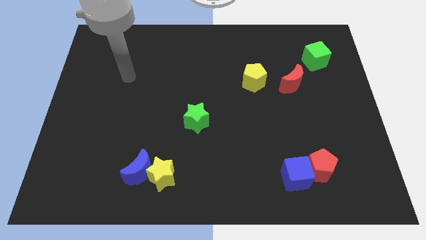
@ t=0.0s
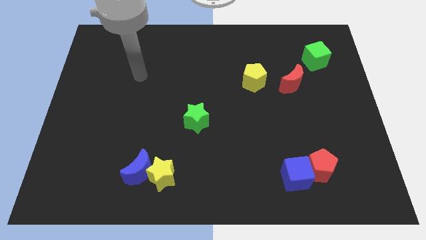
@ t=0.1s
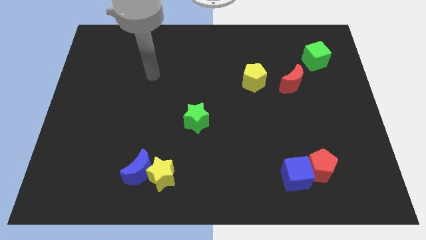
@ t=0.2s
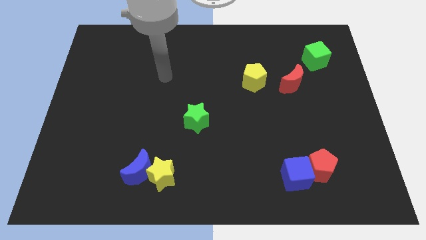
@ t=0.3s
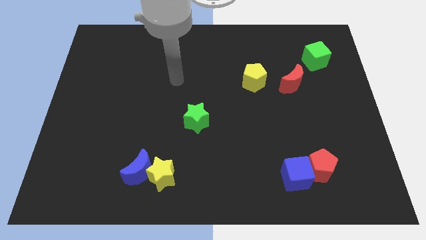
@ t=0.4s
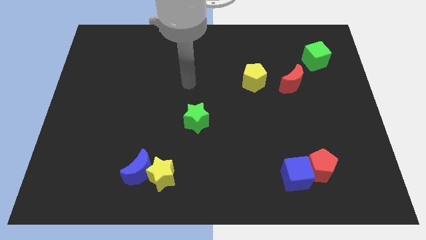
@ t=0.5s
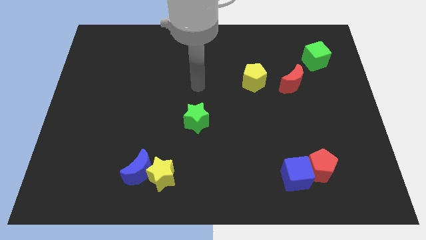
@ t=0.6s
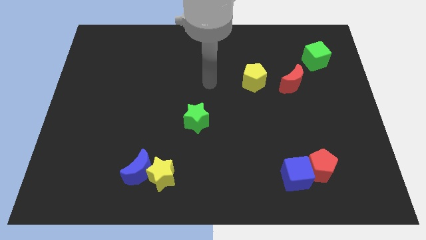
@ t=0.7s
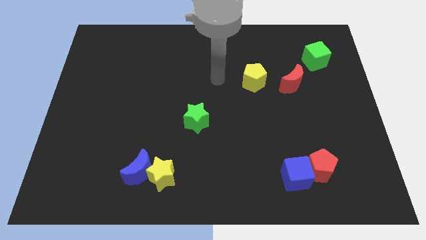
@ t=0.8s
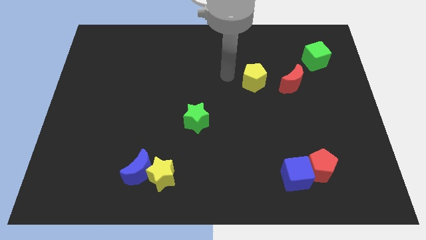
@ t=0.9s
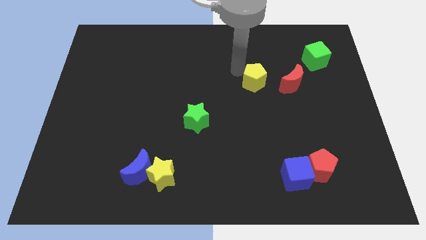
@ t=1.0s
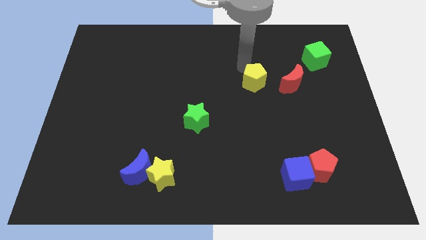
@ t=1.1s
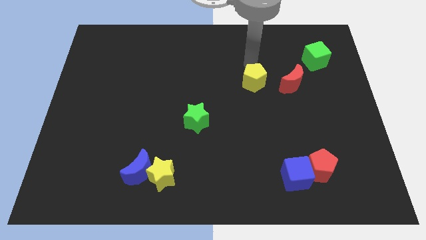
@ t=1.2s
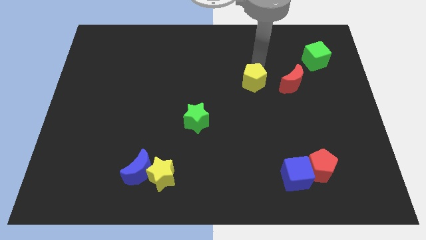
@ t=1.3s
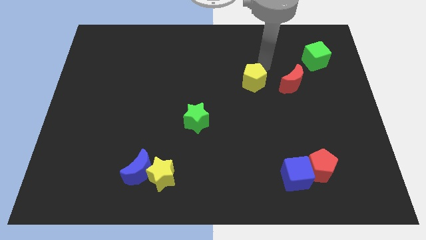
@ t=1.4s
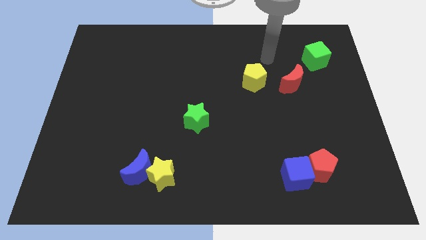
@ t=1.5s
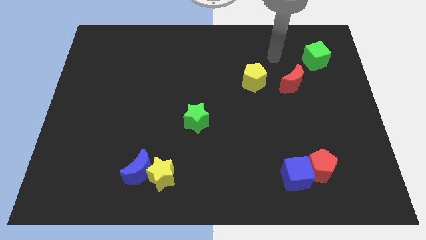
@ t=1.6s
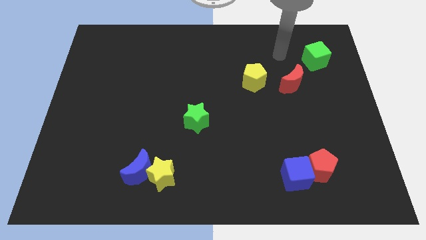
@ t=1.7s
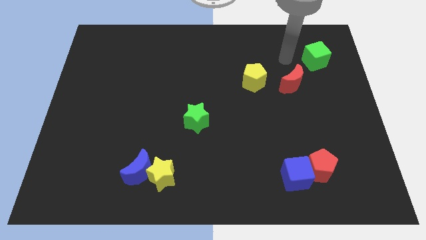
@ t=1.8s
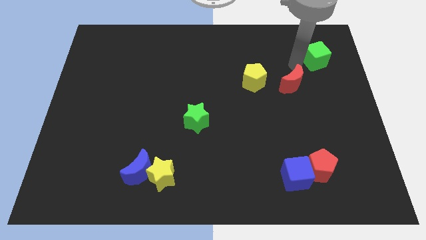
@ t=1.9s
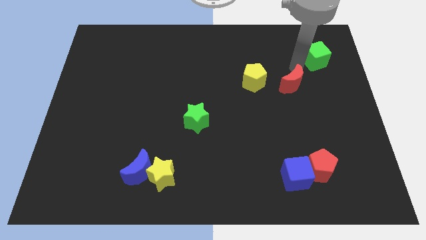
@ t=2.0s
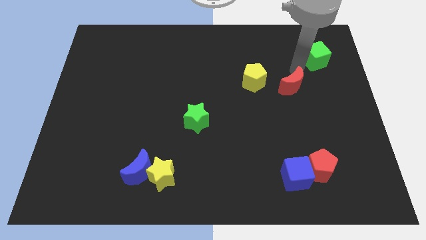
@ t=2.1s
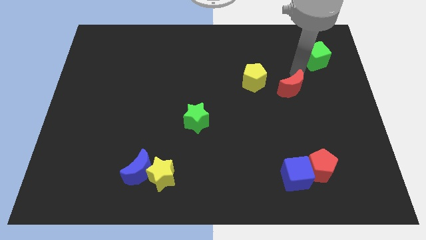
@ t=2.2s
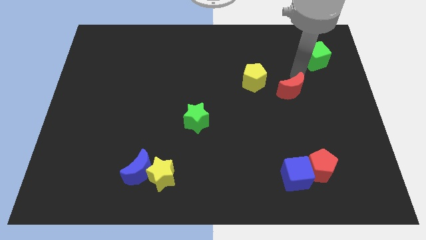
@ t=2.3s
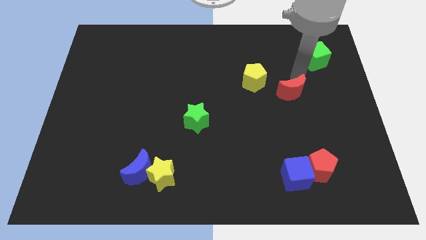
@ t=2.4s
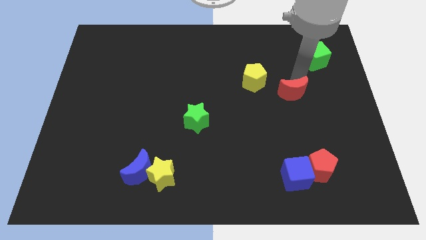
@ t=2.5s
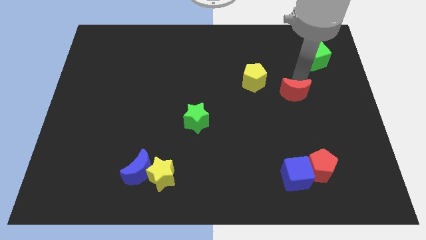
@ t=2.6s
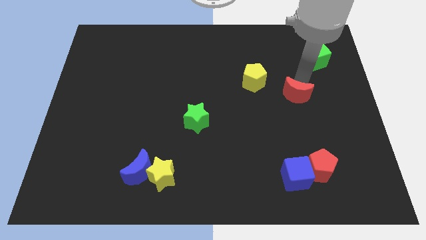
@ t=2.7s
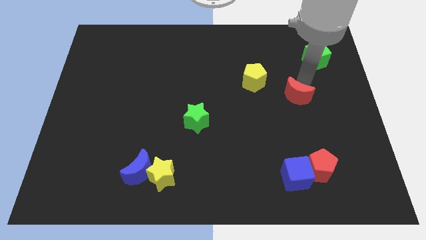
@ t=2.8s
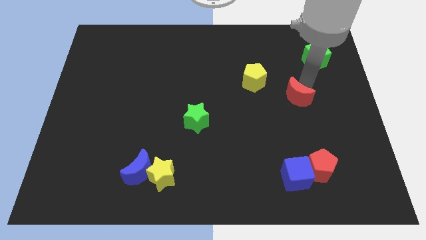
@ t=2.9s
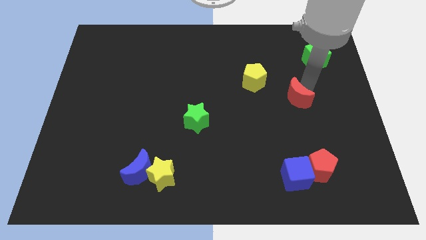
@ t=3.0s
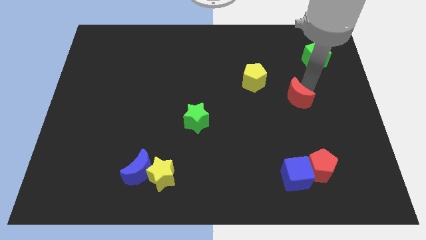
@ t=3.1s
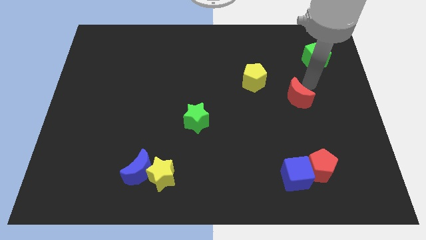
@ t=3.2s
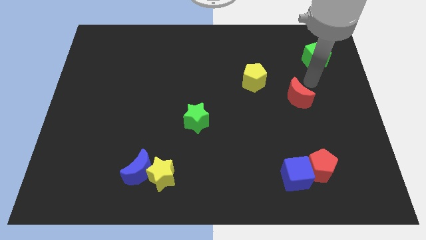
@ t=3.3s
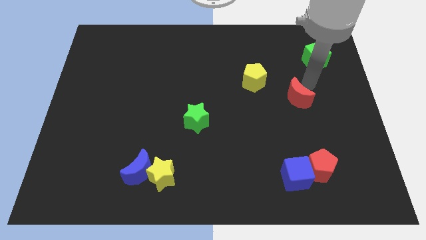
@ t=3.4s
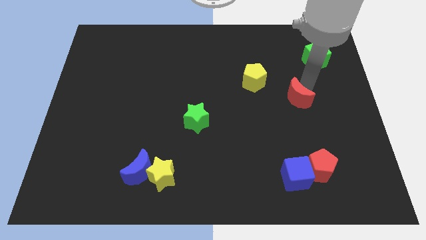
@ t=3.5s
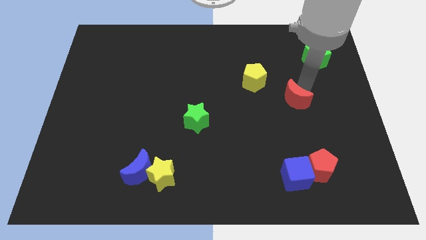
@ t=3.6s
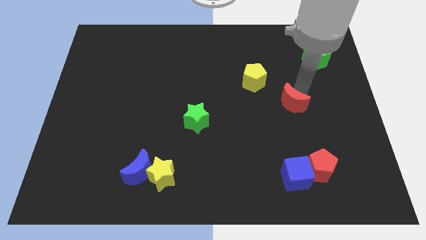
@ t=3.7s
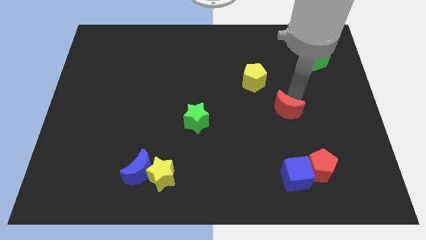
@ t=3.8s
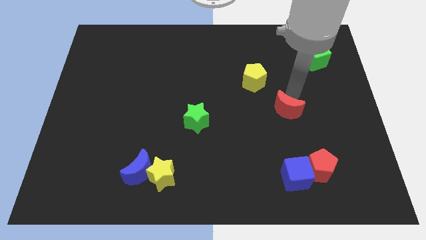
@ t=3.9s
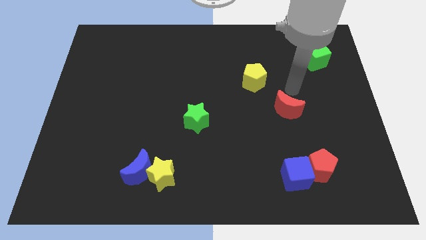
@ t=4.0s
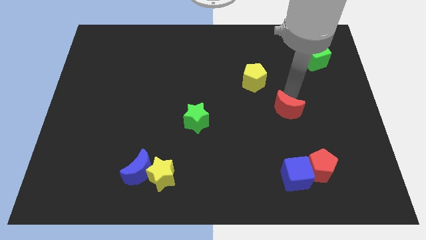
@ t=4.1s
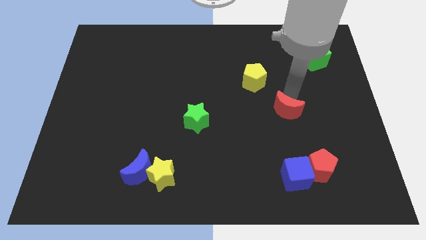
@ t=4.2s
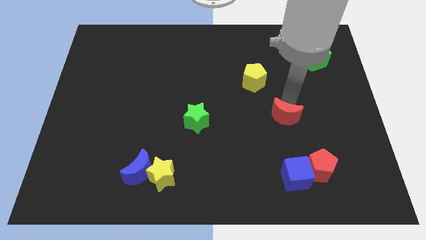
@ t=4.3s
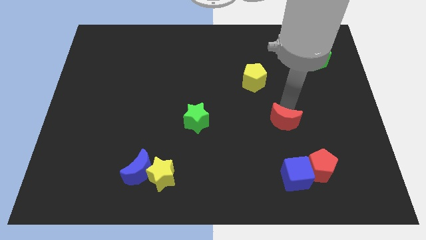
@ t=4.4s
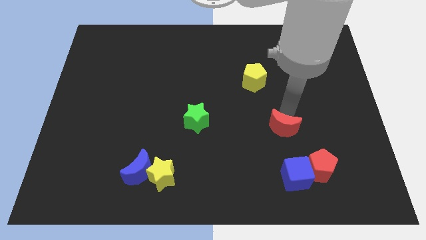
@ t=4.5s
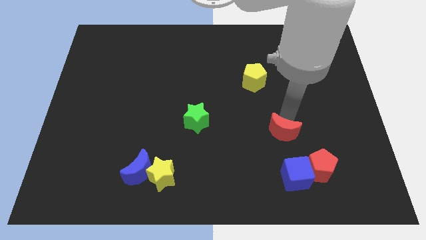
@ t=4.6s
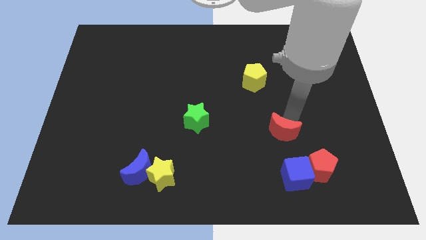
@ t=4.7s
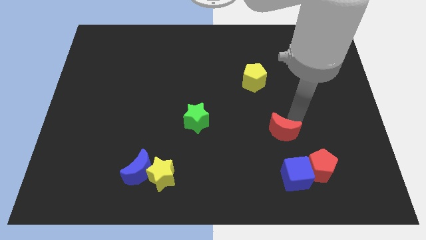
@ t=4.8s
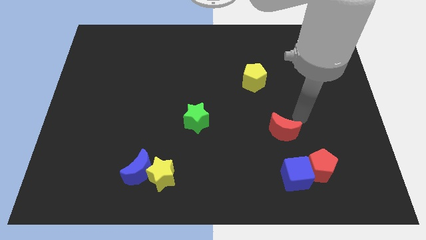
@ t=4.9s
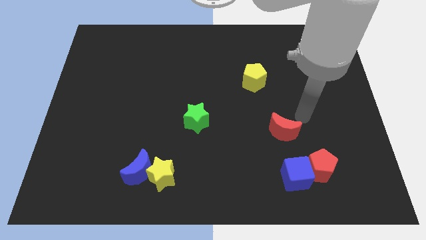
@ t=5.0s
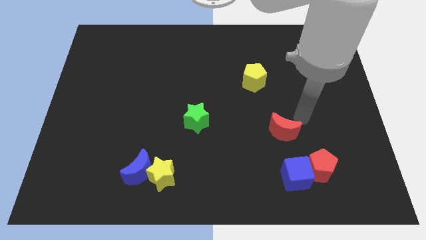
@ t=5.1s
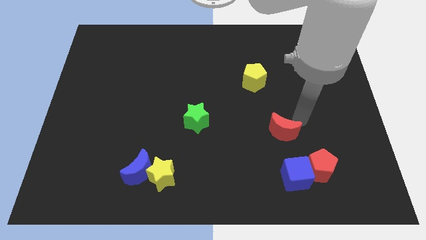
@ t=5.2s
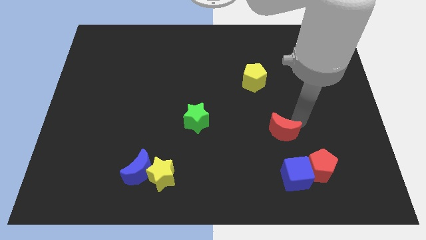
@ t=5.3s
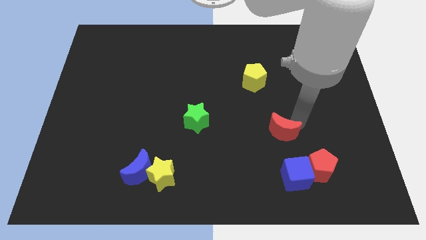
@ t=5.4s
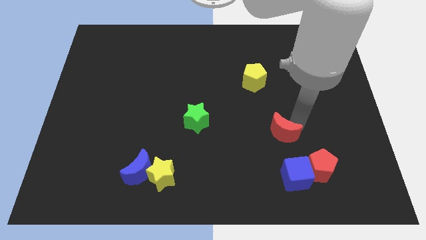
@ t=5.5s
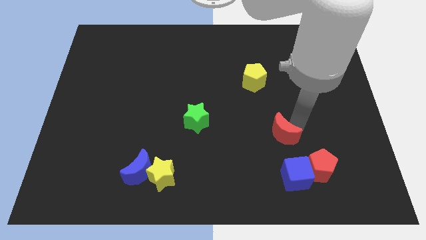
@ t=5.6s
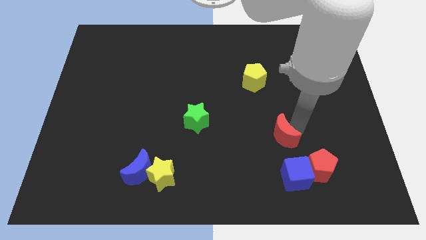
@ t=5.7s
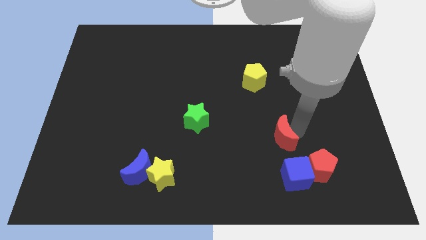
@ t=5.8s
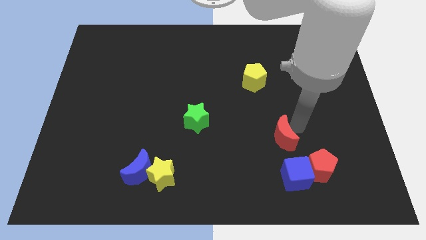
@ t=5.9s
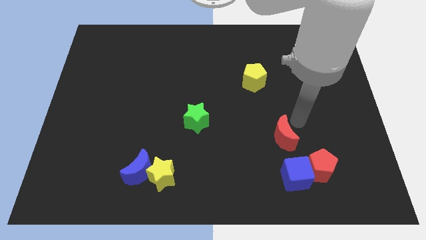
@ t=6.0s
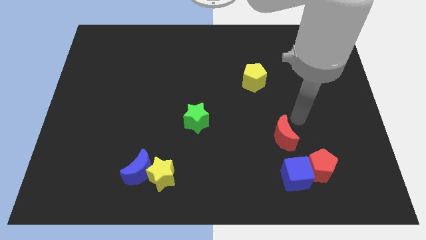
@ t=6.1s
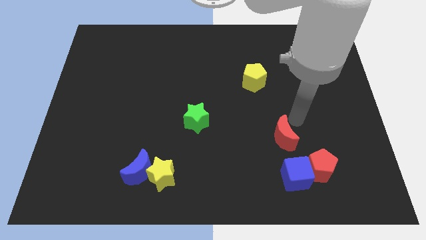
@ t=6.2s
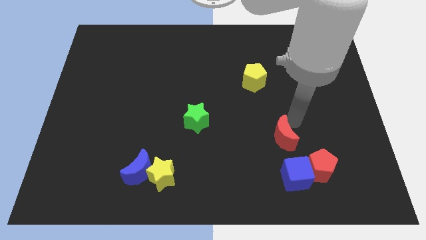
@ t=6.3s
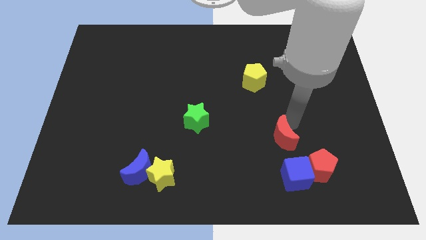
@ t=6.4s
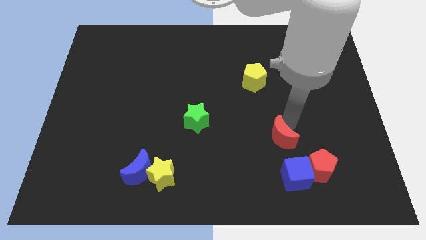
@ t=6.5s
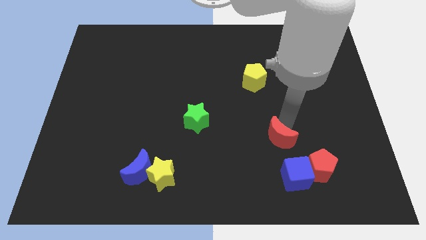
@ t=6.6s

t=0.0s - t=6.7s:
move the red moon diagonally up and to the left of the blue cube
